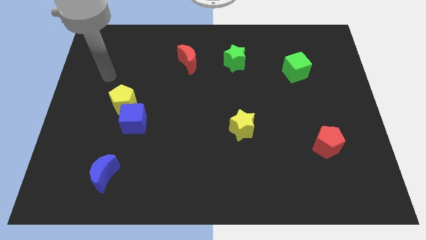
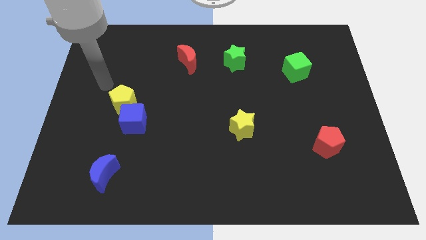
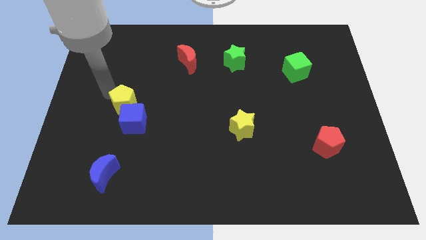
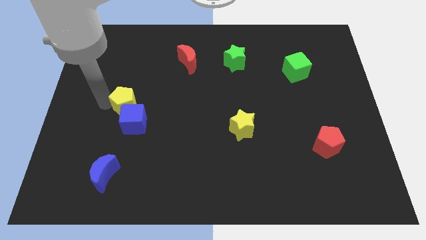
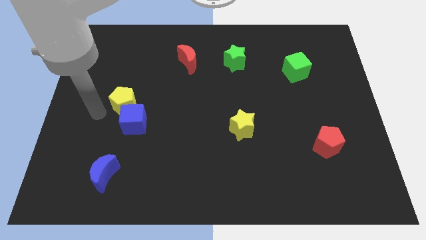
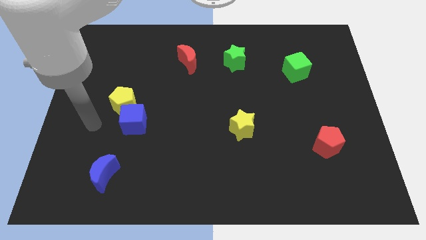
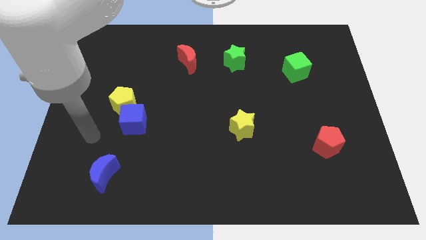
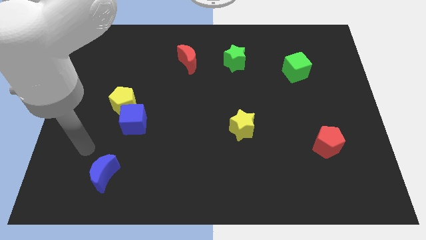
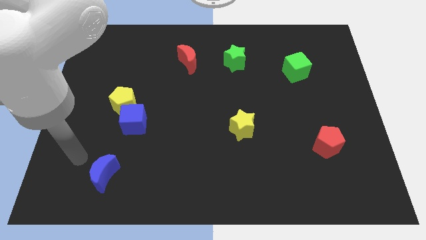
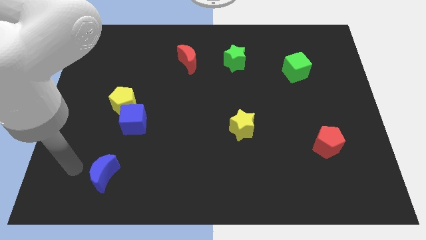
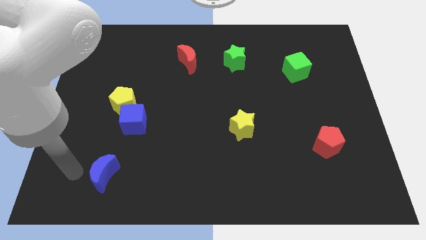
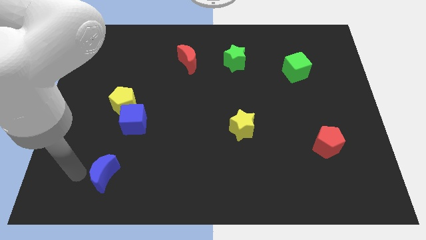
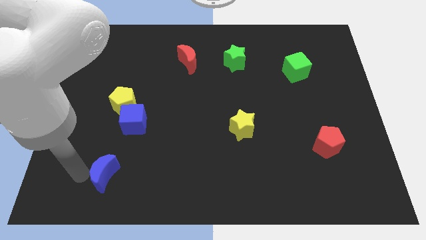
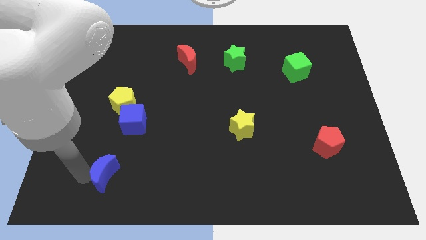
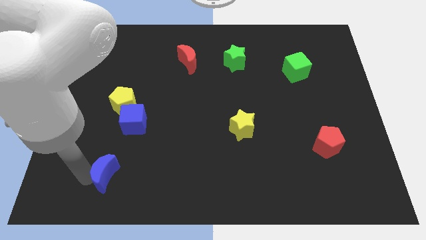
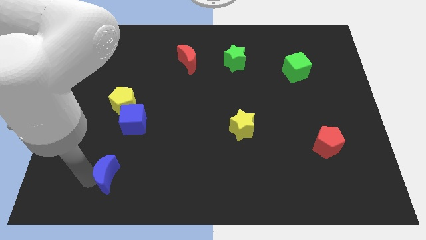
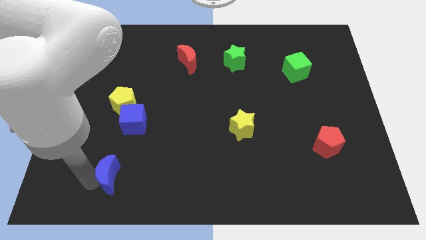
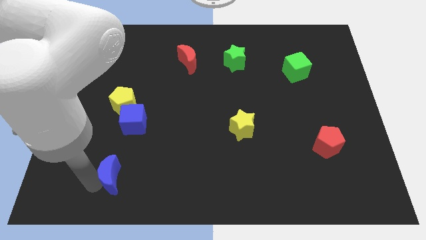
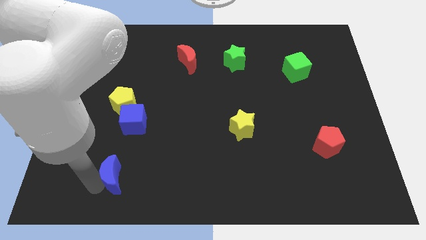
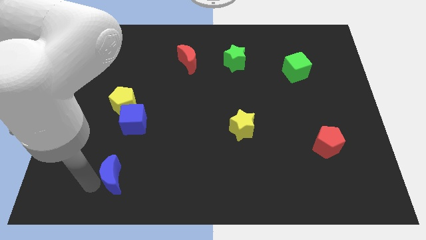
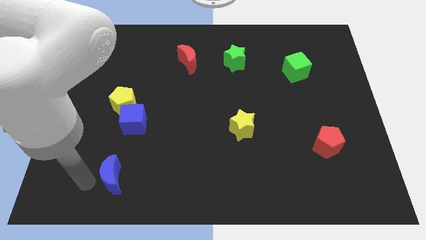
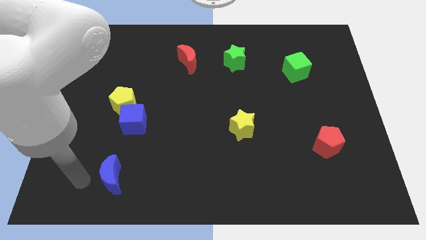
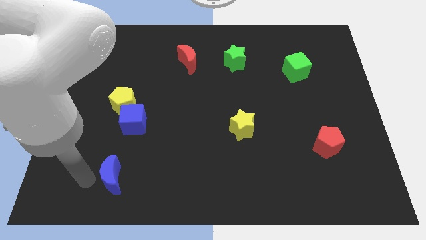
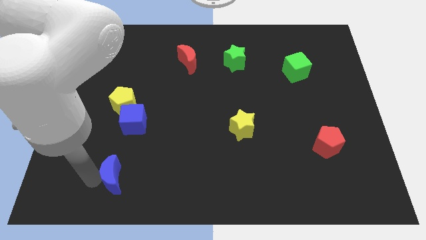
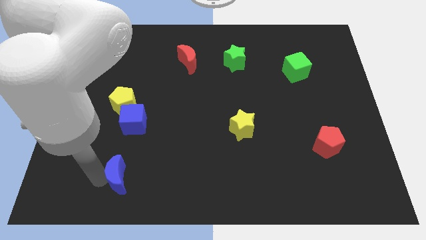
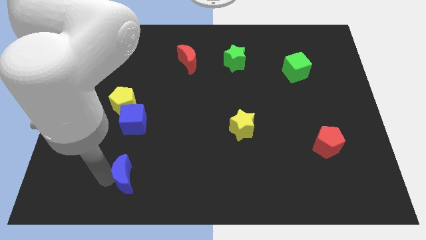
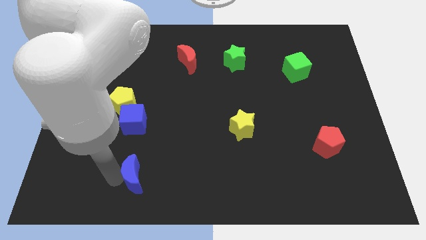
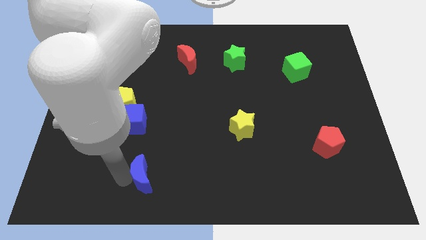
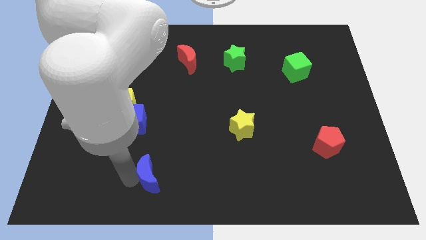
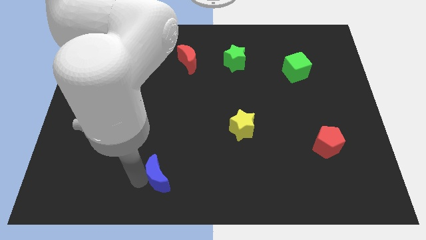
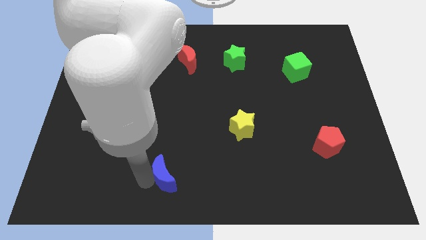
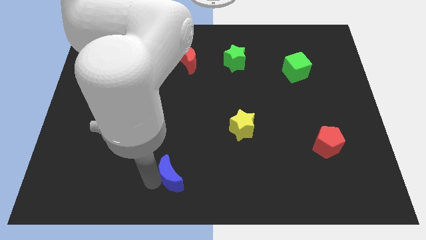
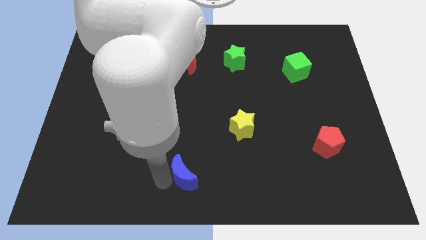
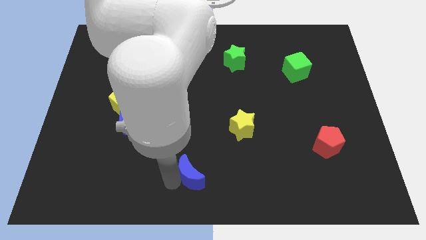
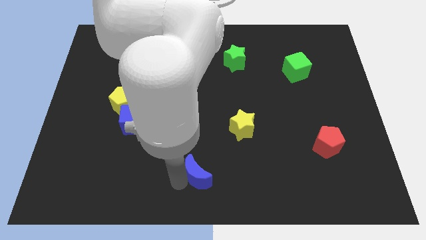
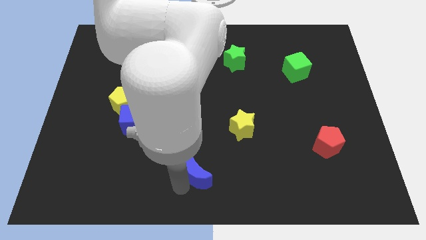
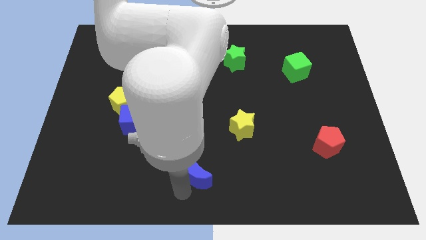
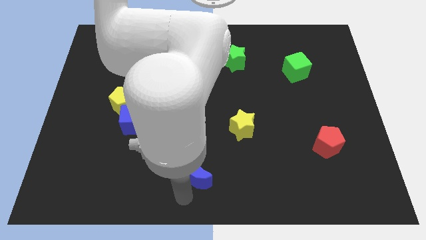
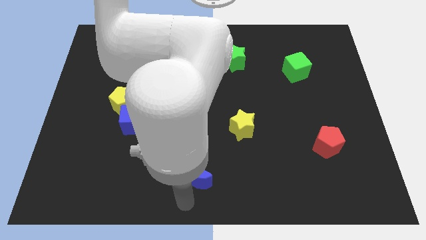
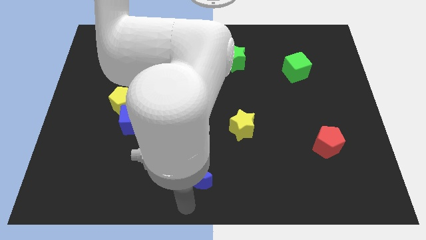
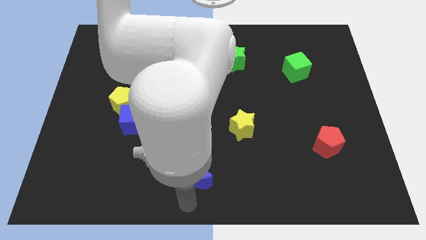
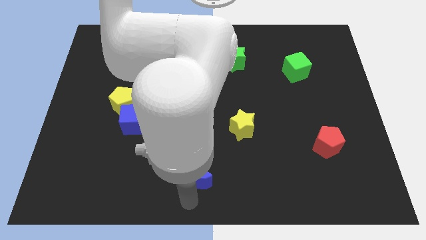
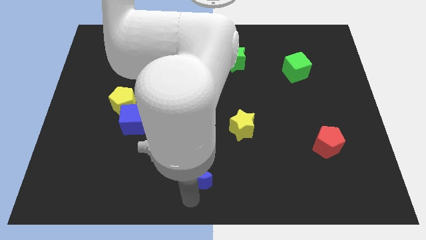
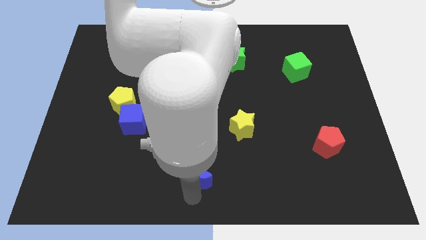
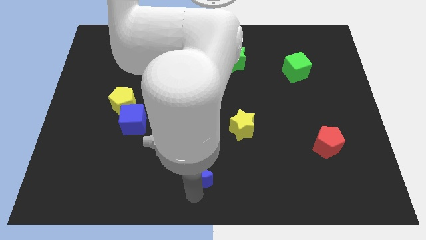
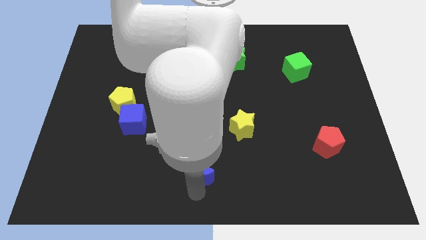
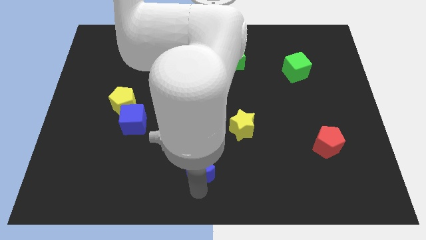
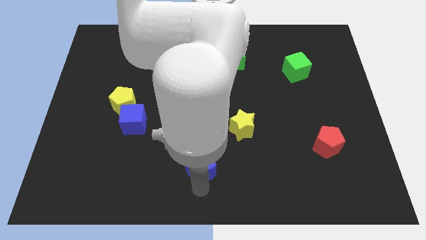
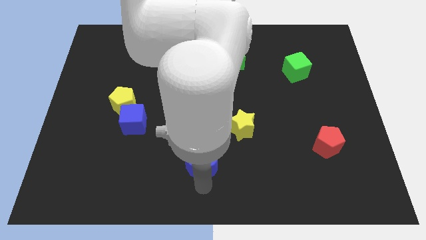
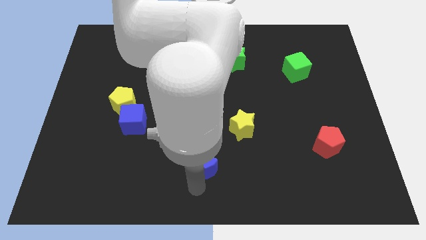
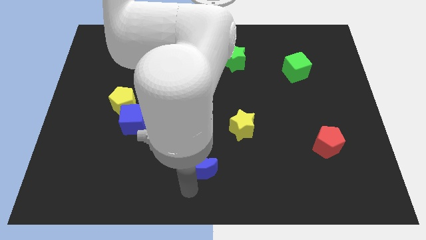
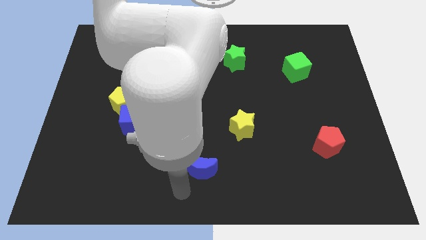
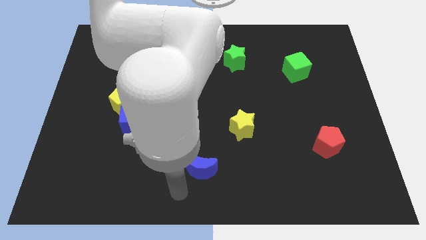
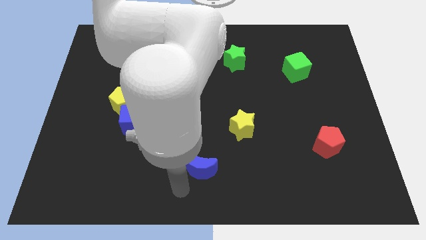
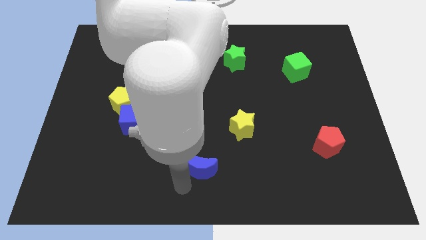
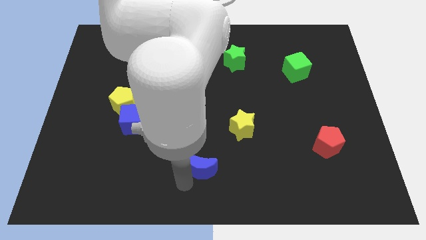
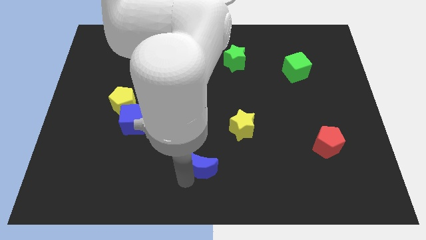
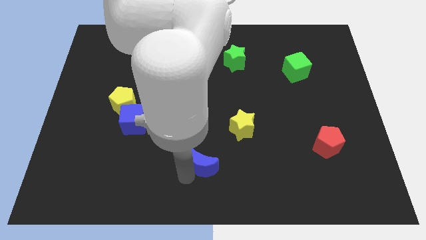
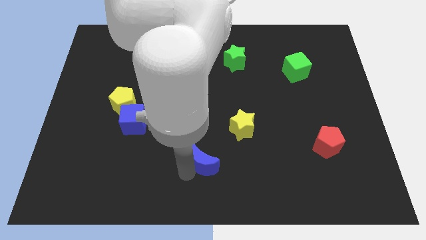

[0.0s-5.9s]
slide the blue moon diagonally down and to the left of the yellow star

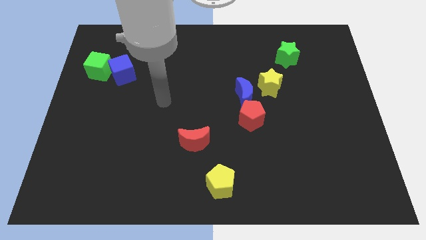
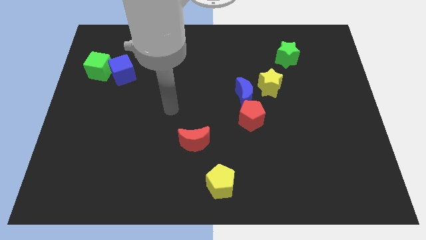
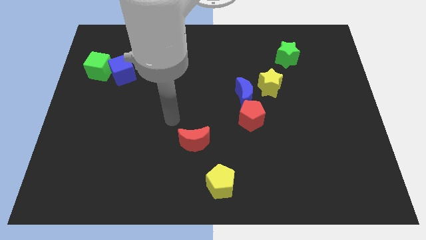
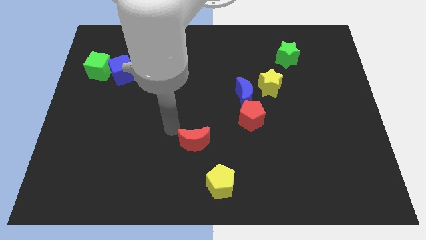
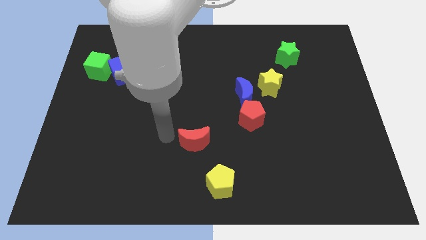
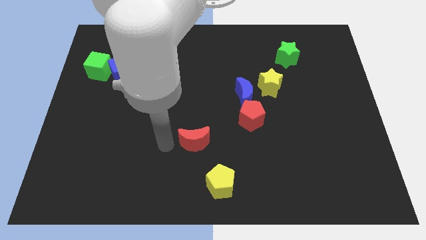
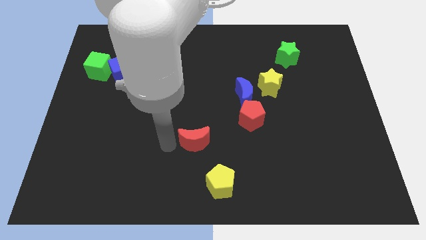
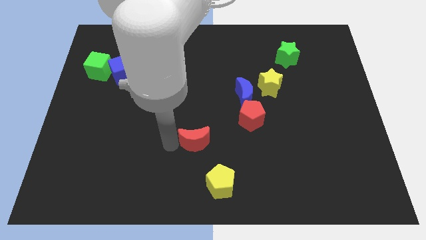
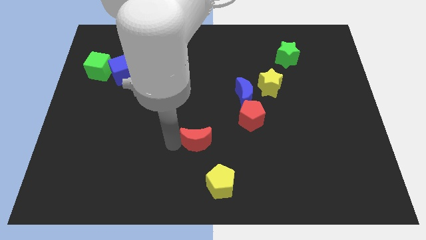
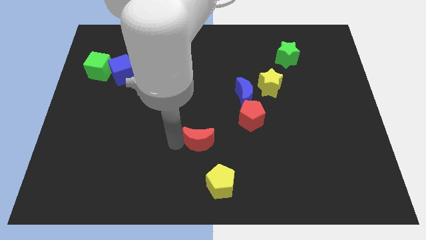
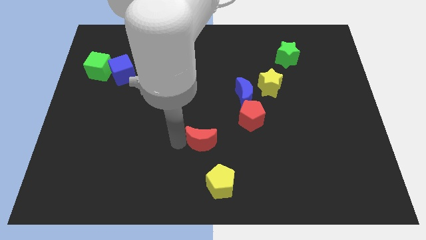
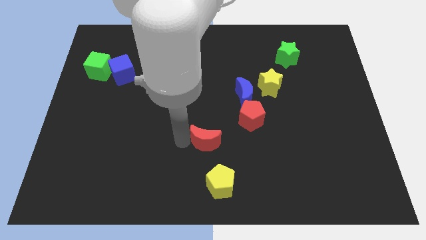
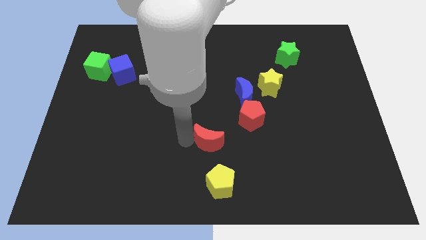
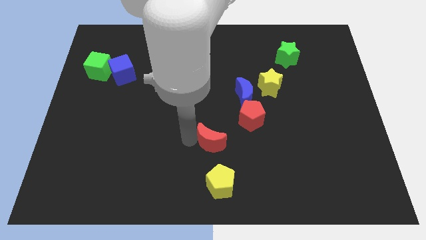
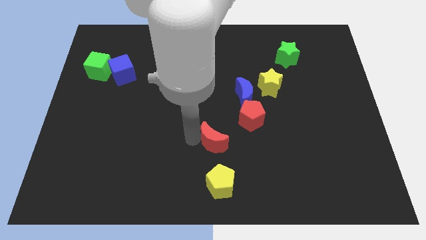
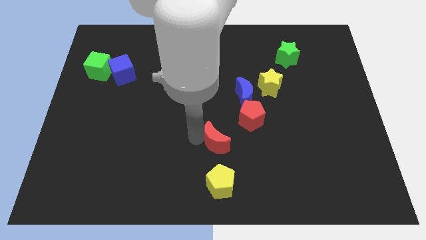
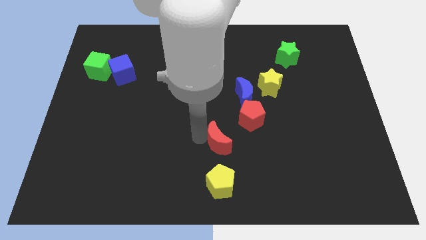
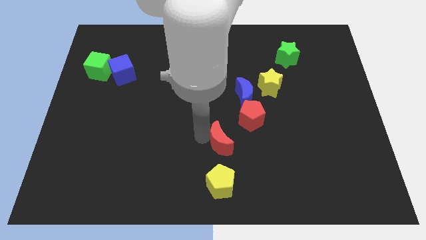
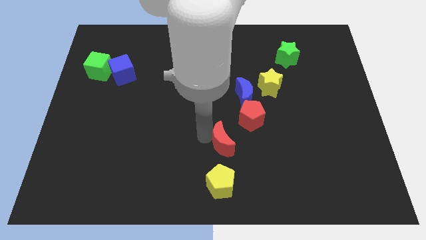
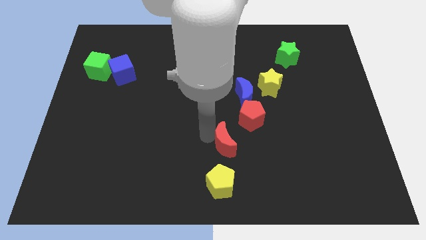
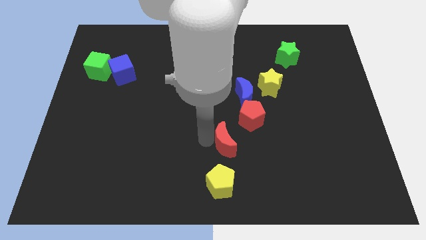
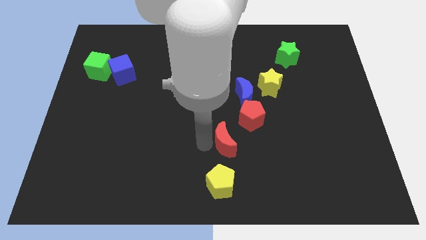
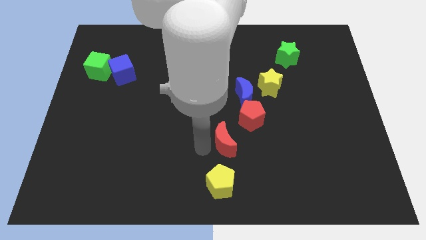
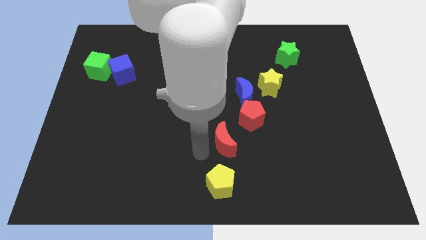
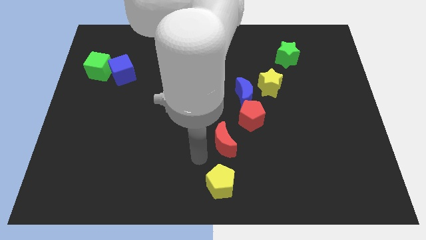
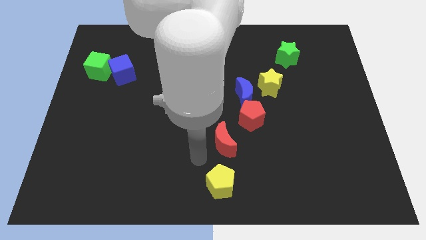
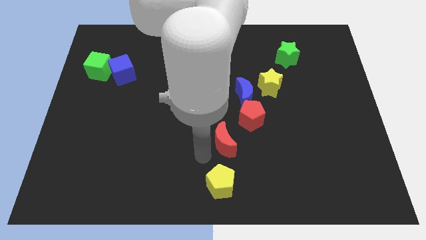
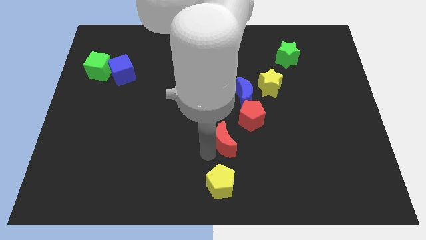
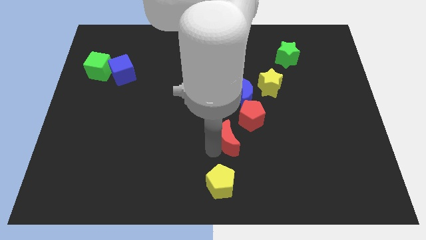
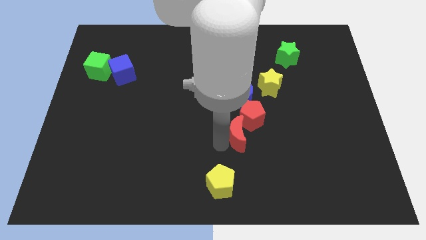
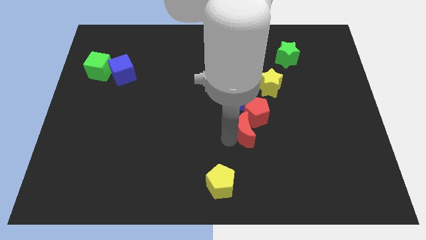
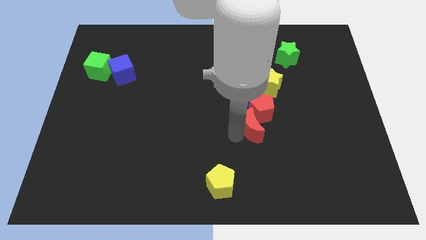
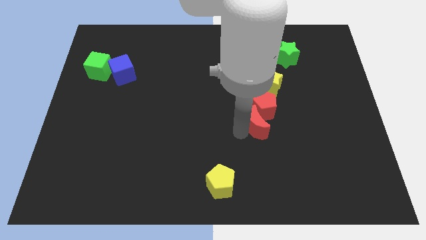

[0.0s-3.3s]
slide the red moon diagonally down and to the right of the blue moon
